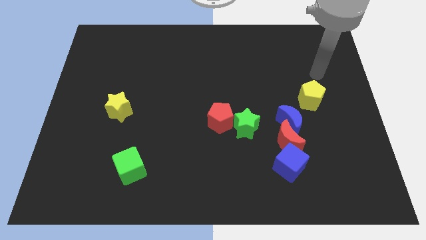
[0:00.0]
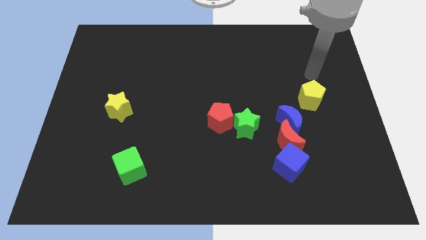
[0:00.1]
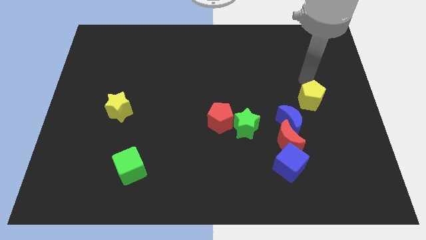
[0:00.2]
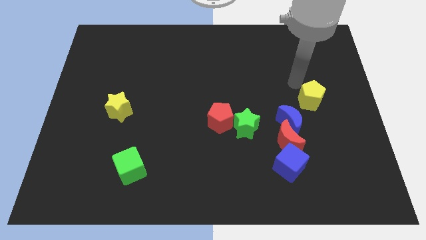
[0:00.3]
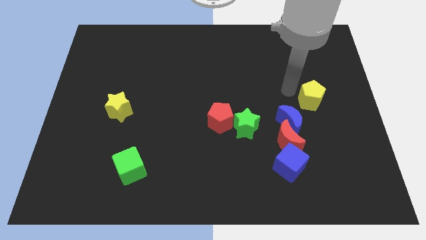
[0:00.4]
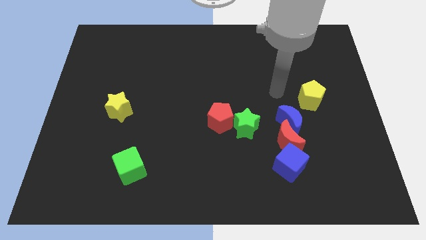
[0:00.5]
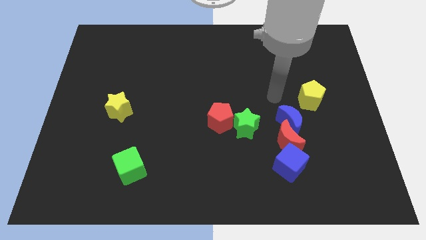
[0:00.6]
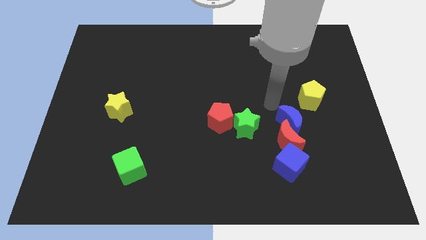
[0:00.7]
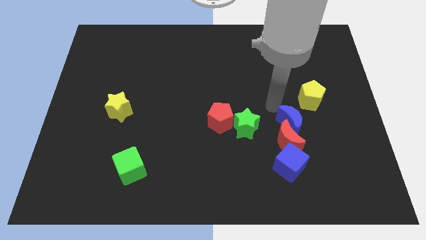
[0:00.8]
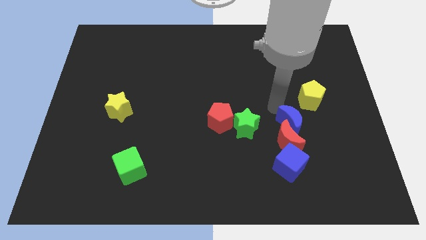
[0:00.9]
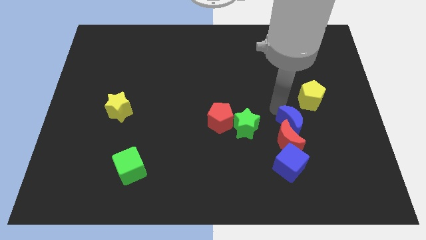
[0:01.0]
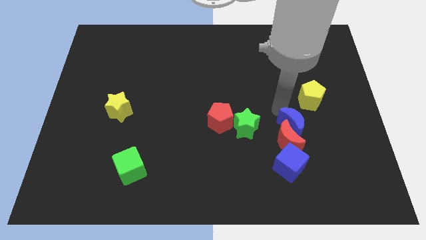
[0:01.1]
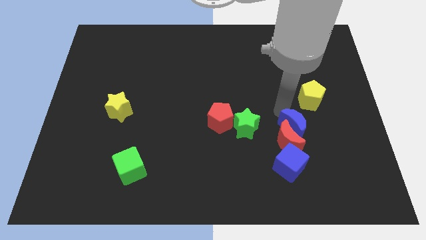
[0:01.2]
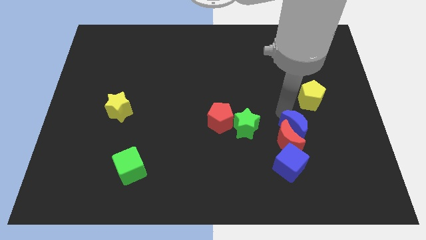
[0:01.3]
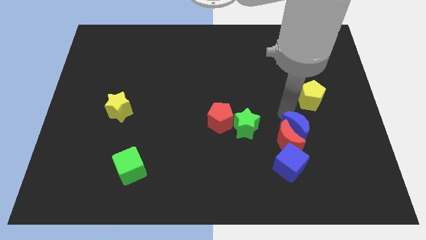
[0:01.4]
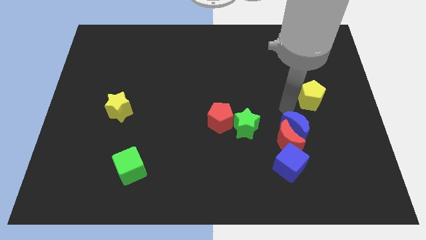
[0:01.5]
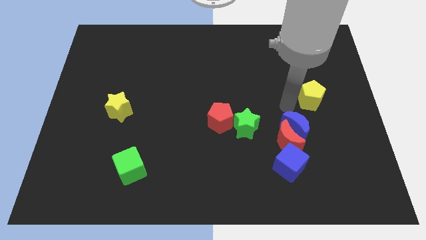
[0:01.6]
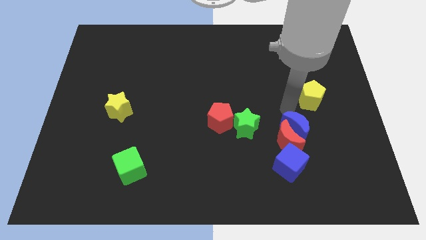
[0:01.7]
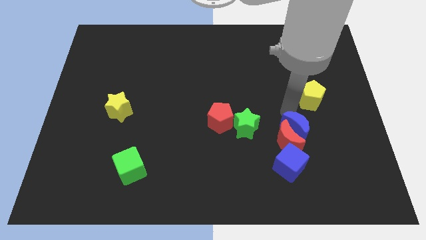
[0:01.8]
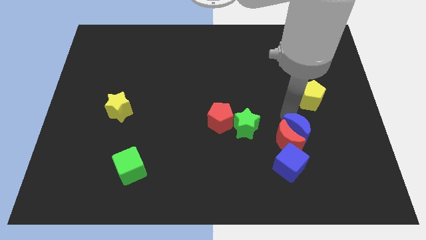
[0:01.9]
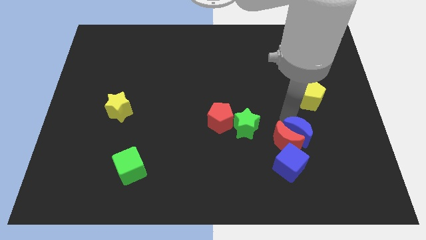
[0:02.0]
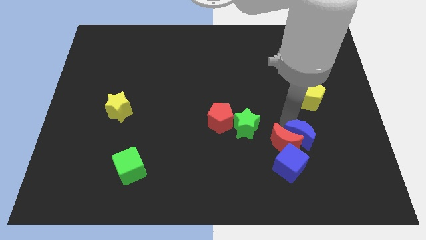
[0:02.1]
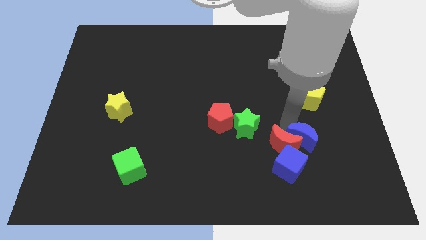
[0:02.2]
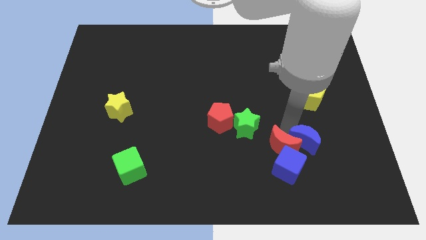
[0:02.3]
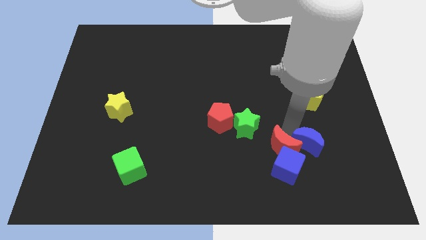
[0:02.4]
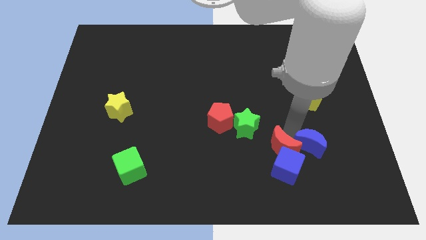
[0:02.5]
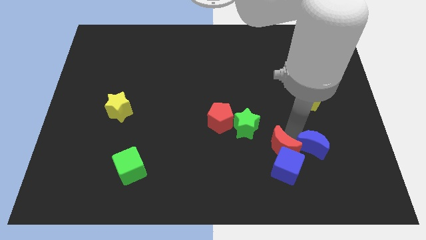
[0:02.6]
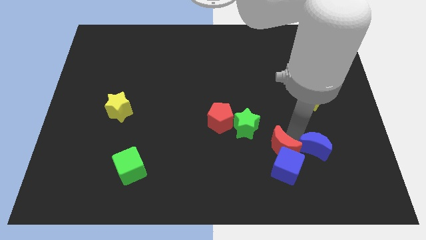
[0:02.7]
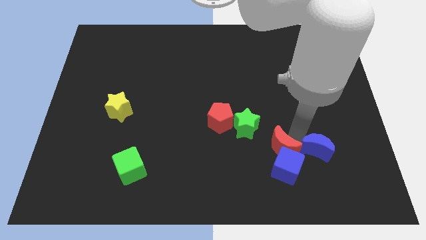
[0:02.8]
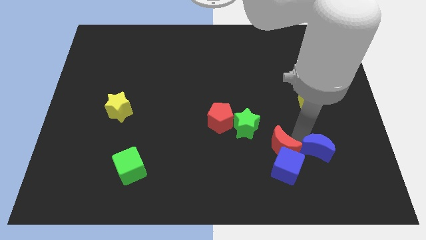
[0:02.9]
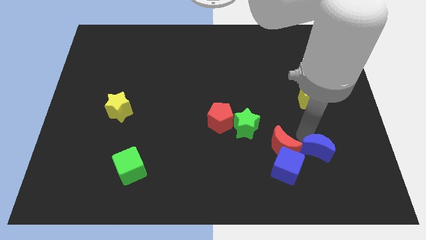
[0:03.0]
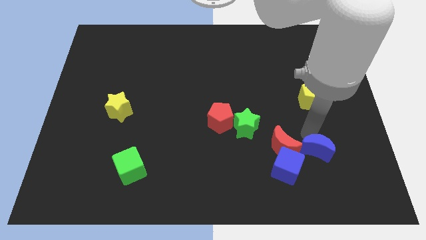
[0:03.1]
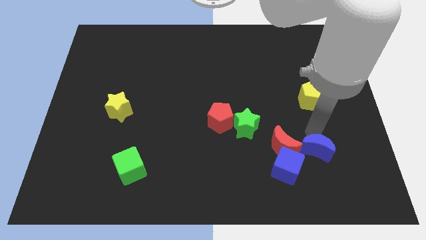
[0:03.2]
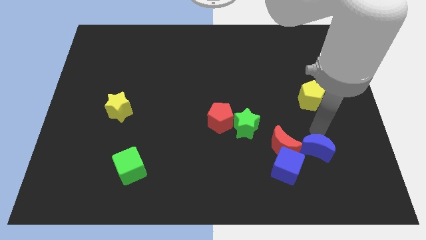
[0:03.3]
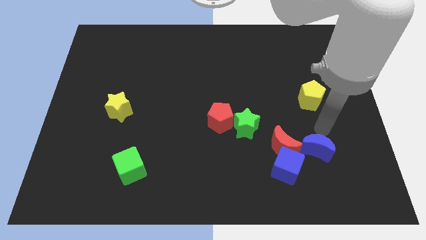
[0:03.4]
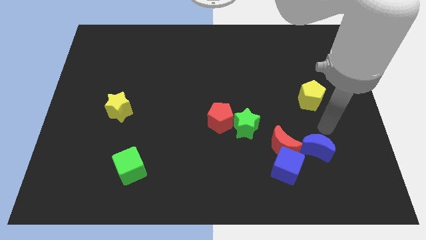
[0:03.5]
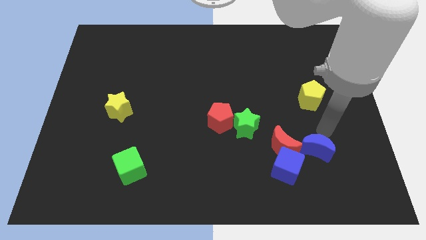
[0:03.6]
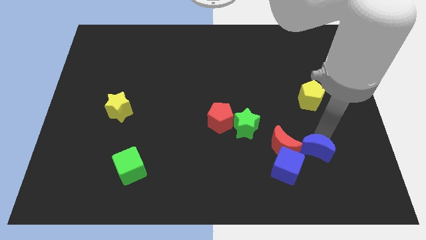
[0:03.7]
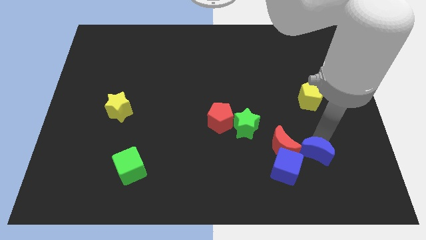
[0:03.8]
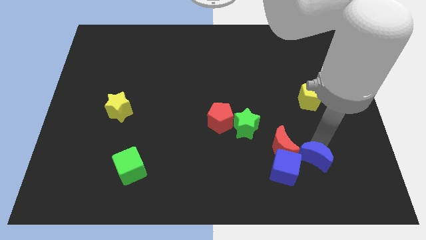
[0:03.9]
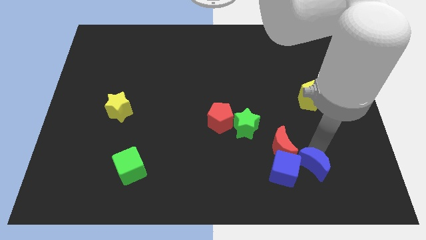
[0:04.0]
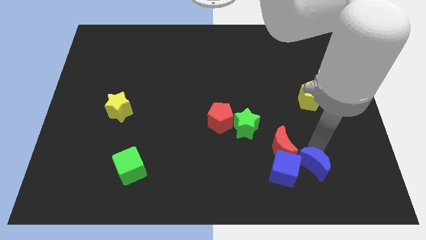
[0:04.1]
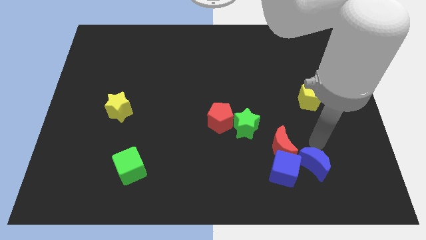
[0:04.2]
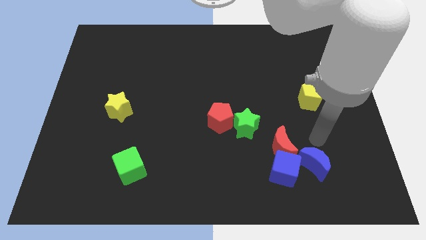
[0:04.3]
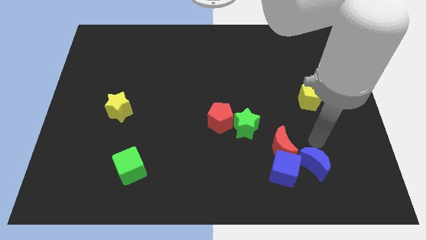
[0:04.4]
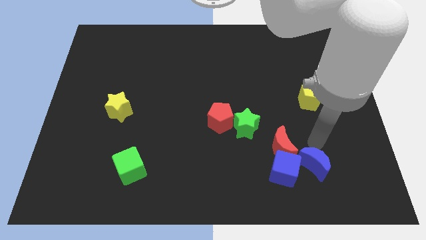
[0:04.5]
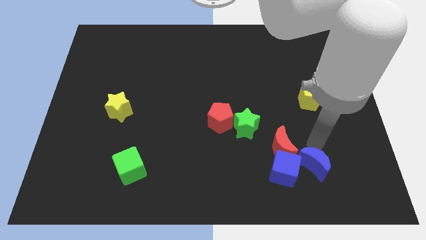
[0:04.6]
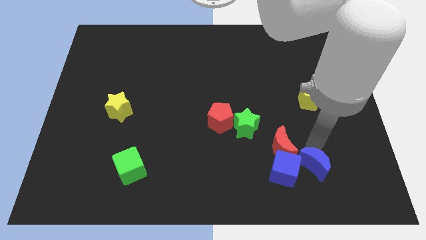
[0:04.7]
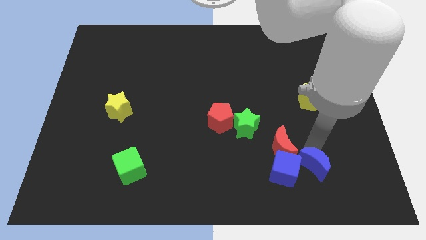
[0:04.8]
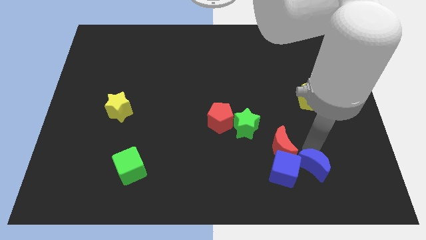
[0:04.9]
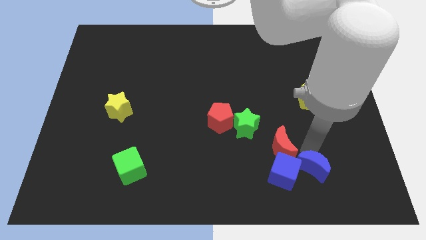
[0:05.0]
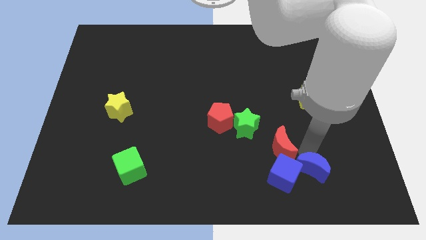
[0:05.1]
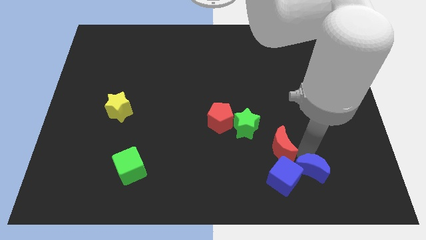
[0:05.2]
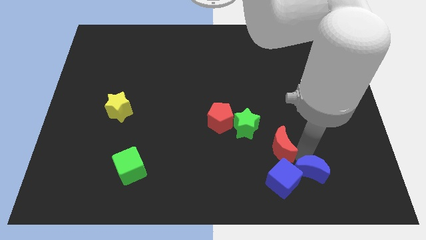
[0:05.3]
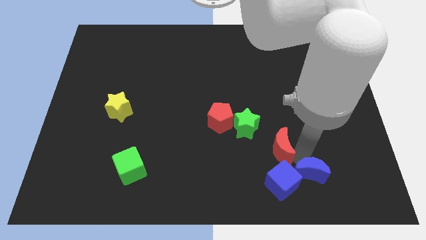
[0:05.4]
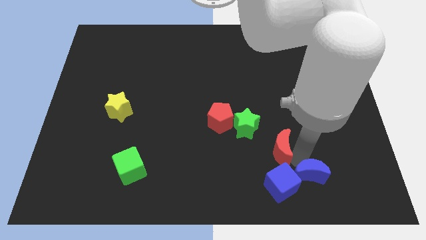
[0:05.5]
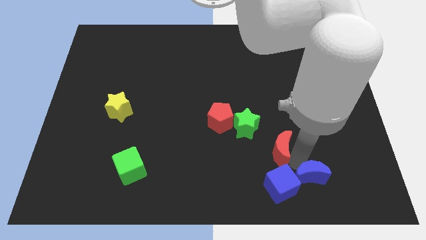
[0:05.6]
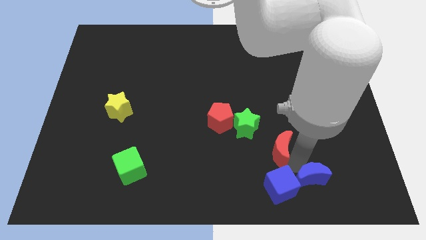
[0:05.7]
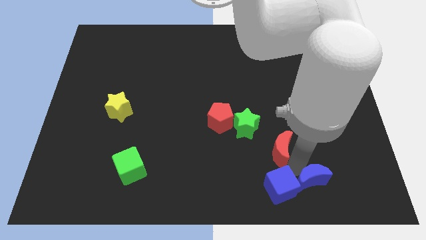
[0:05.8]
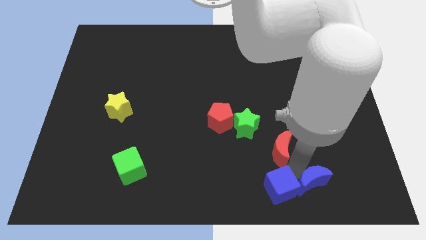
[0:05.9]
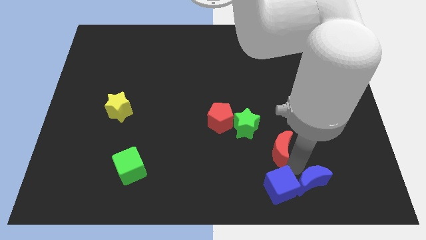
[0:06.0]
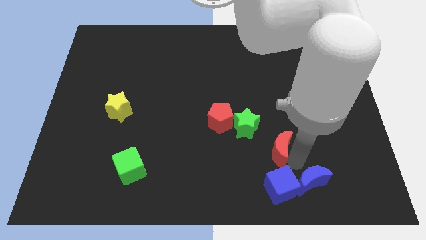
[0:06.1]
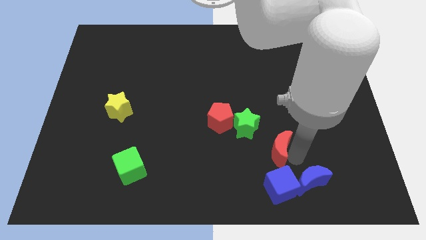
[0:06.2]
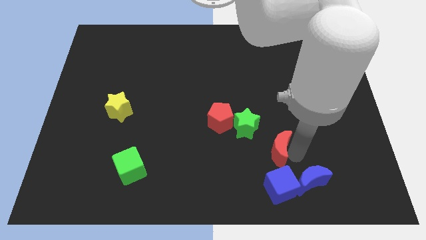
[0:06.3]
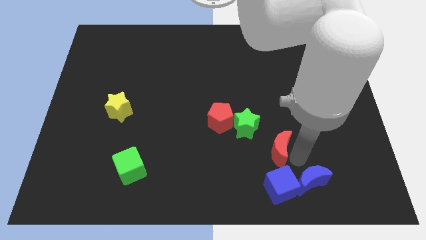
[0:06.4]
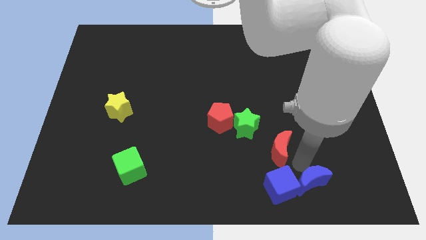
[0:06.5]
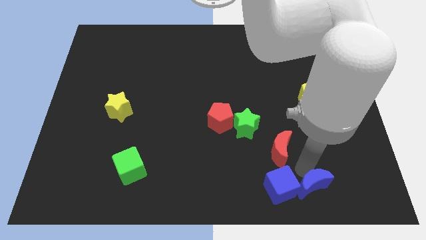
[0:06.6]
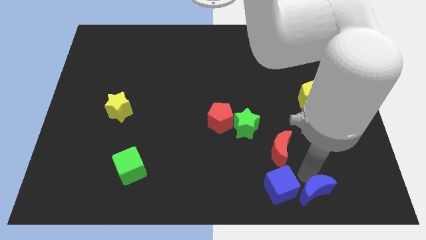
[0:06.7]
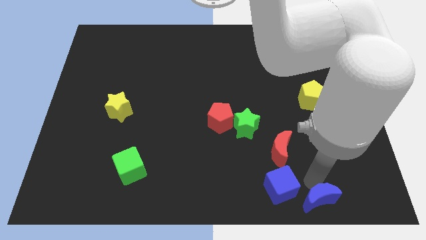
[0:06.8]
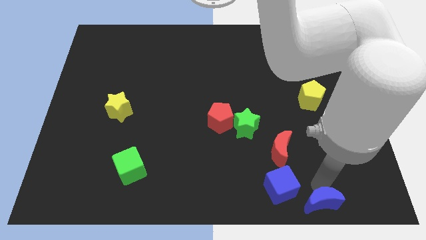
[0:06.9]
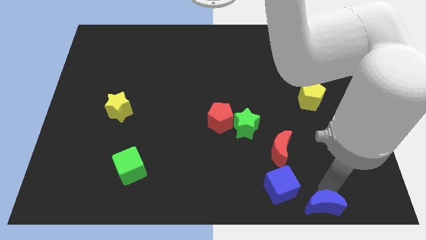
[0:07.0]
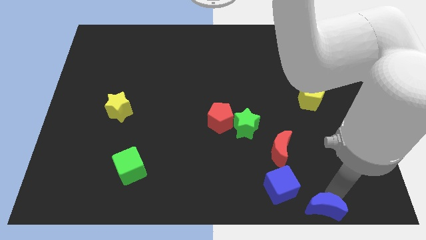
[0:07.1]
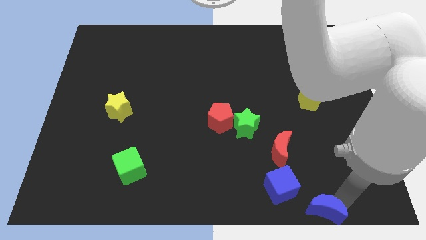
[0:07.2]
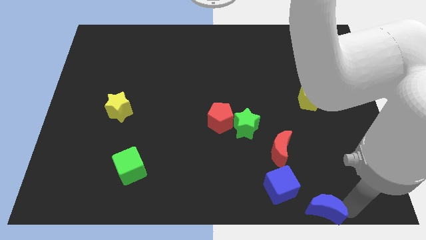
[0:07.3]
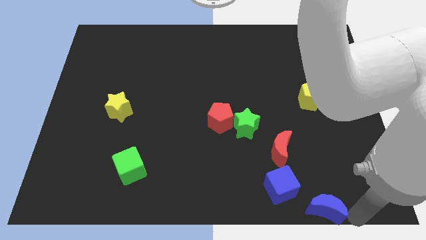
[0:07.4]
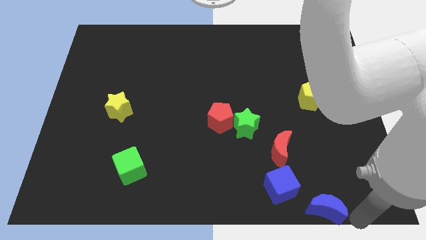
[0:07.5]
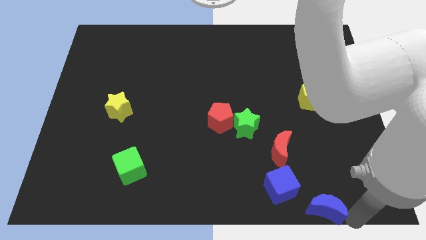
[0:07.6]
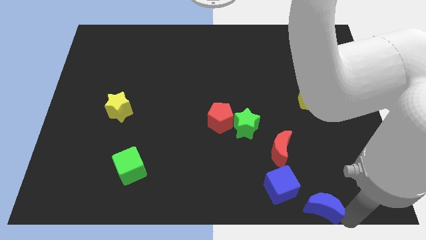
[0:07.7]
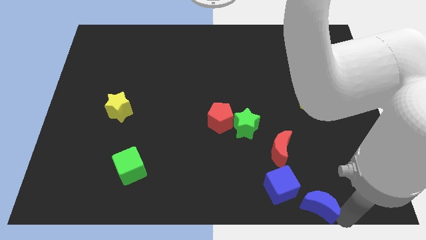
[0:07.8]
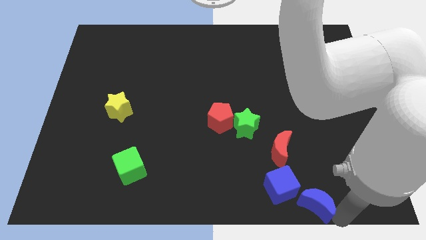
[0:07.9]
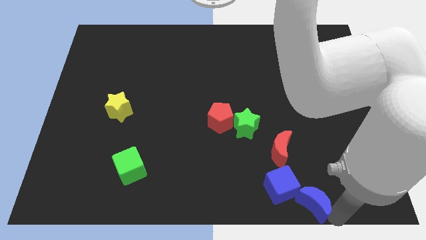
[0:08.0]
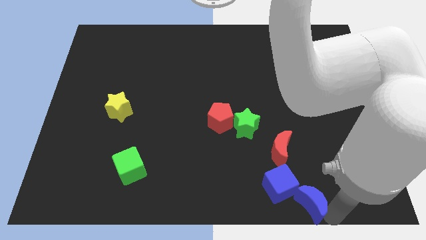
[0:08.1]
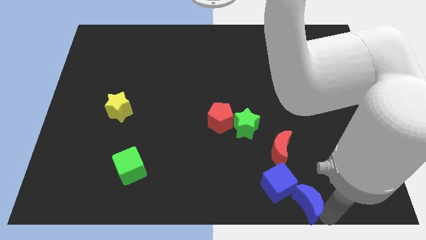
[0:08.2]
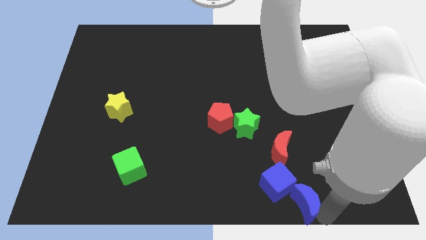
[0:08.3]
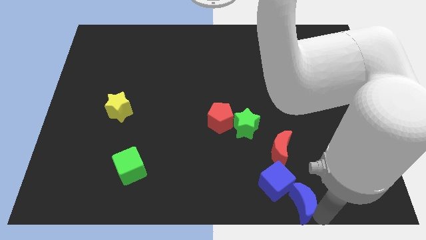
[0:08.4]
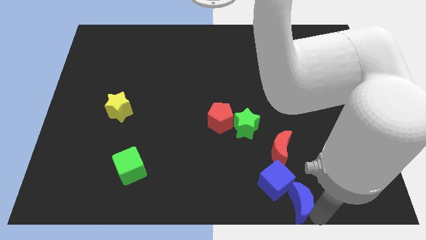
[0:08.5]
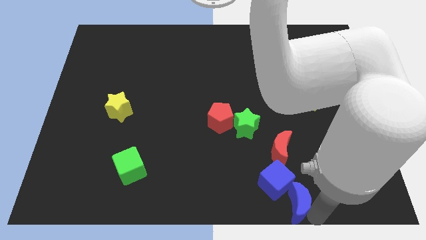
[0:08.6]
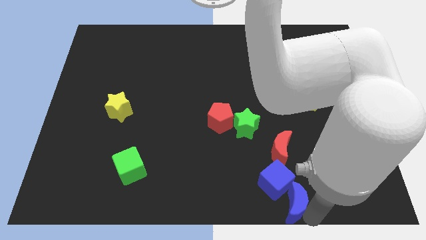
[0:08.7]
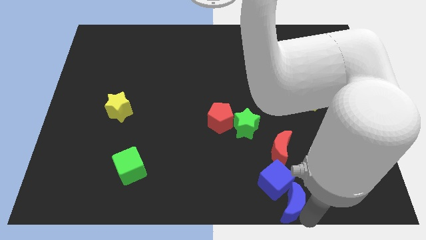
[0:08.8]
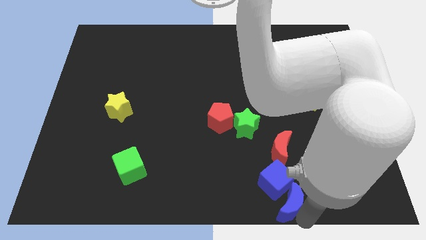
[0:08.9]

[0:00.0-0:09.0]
slightly push the blue moon diagonally downwards and left
